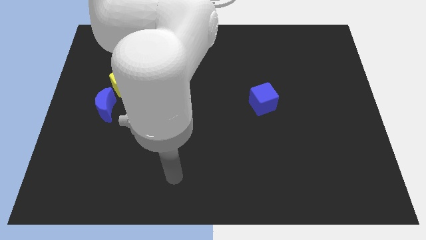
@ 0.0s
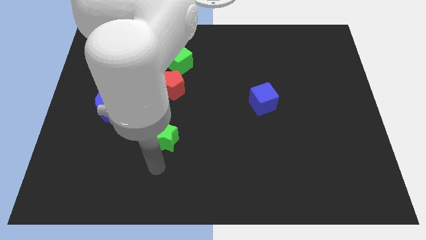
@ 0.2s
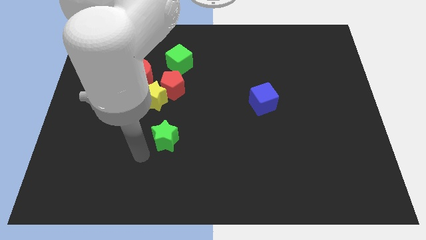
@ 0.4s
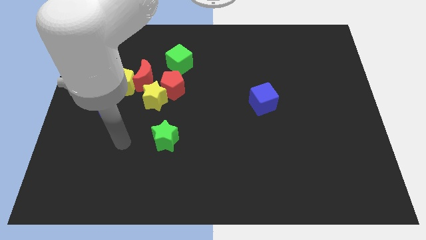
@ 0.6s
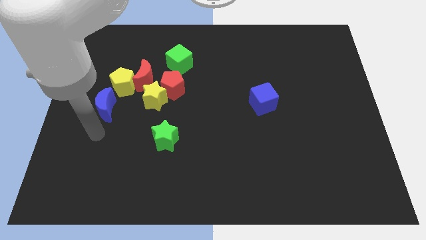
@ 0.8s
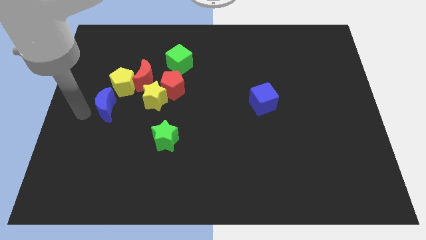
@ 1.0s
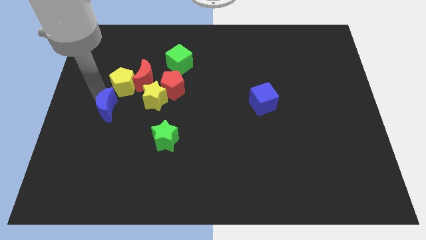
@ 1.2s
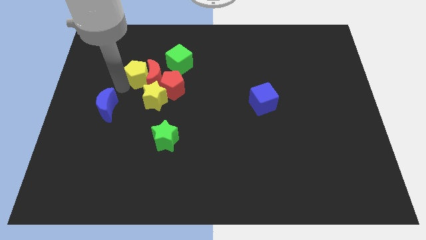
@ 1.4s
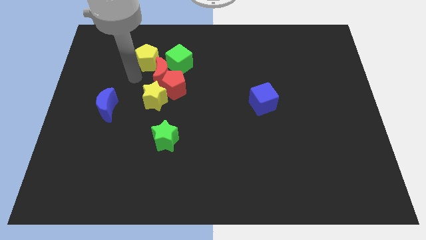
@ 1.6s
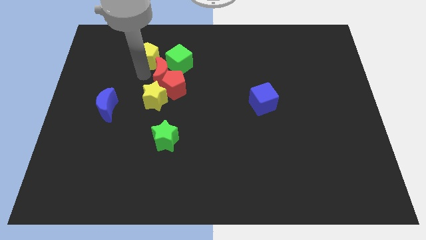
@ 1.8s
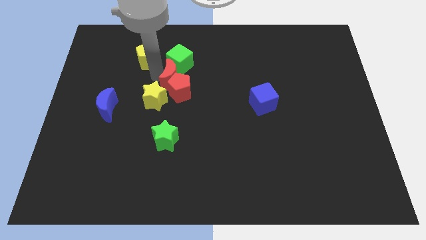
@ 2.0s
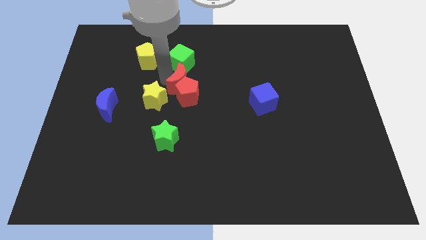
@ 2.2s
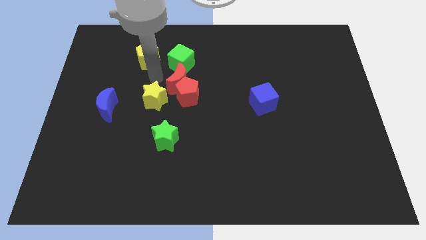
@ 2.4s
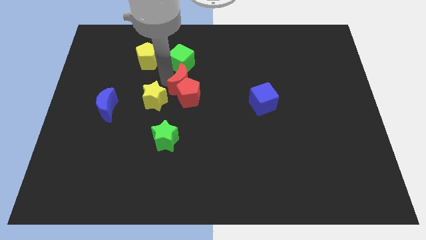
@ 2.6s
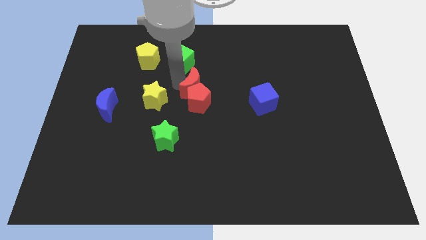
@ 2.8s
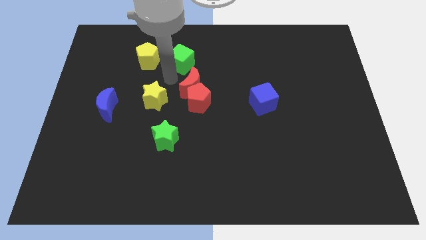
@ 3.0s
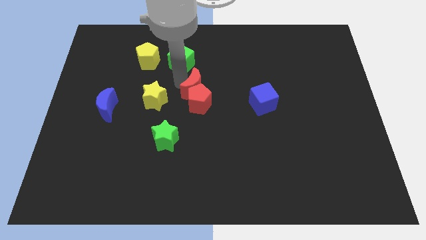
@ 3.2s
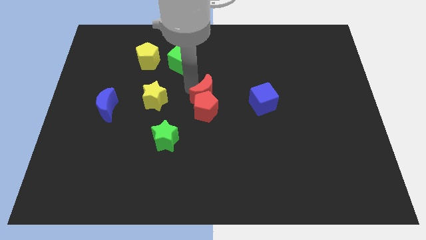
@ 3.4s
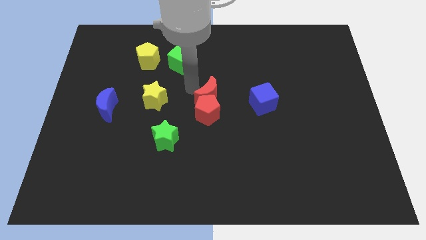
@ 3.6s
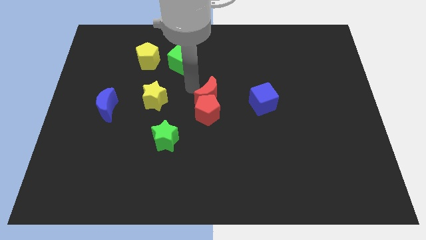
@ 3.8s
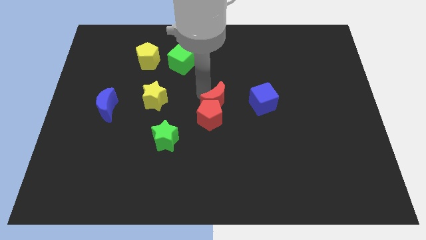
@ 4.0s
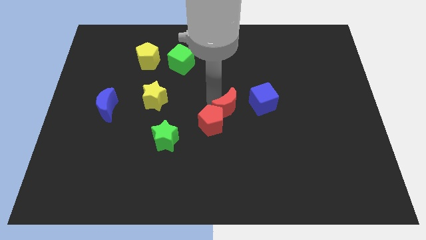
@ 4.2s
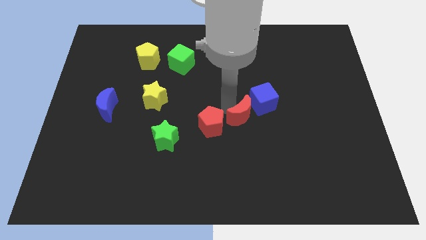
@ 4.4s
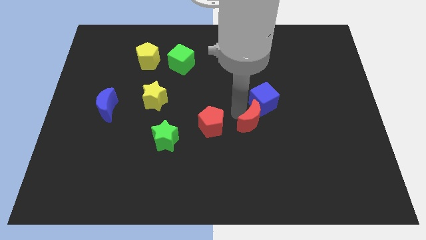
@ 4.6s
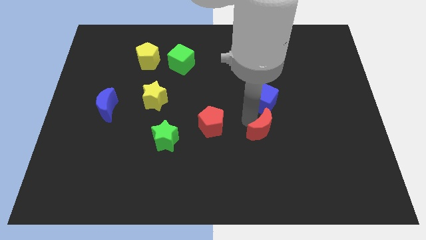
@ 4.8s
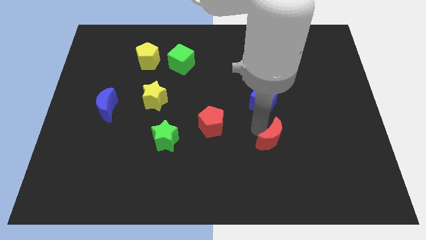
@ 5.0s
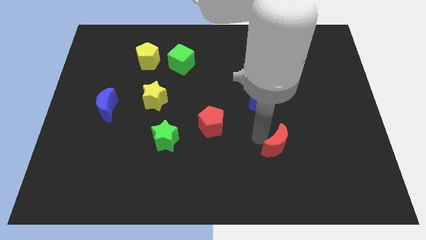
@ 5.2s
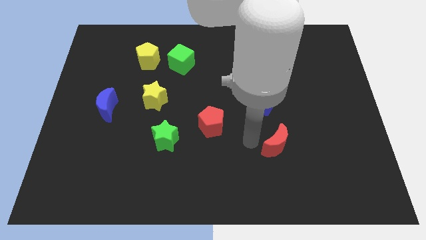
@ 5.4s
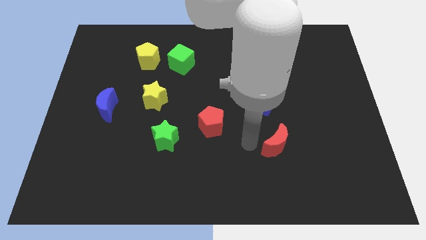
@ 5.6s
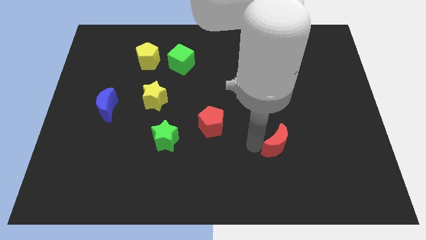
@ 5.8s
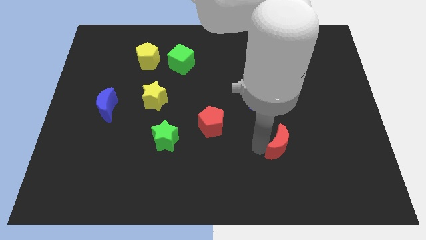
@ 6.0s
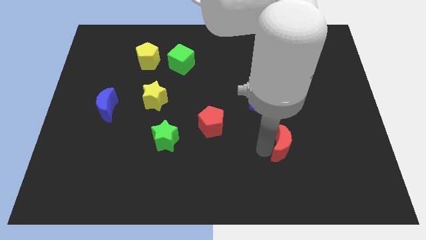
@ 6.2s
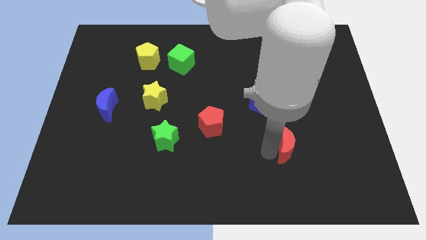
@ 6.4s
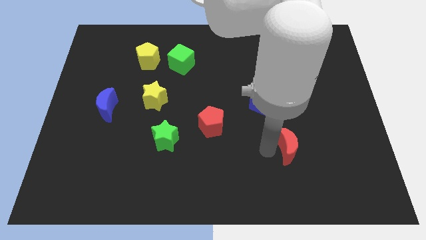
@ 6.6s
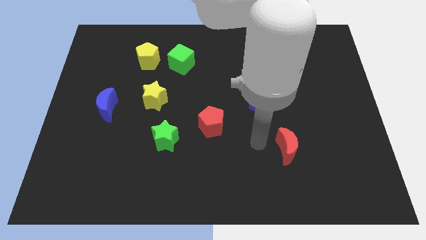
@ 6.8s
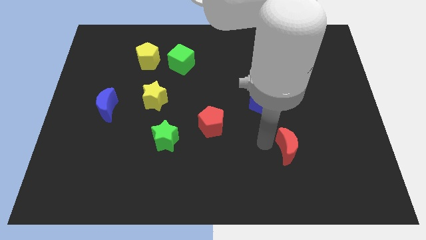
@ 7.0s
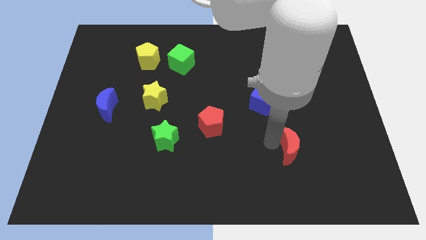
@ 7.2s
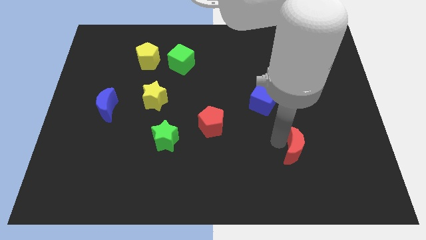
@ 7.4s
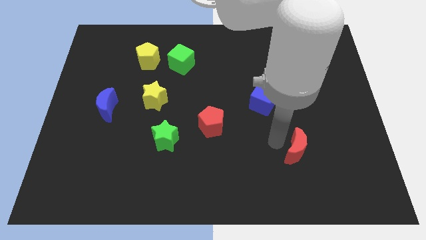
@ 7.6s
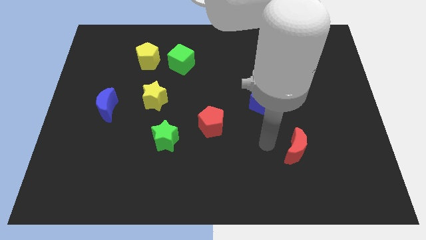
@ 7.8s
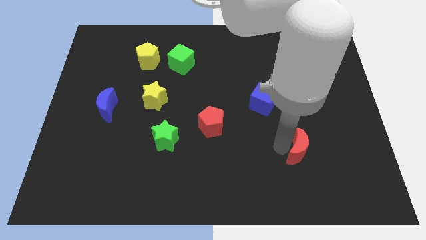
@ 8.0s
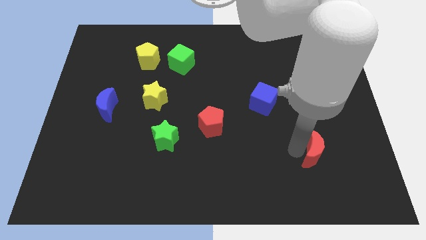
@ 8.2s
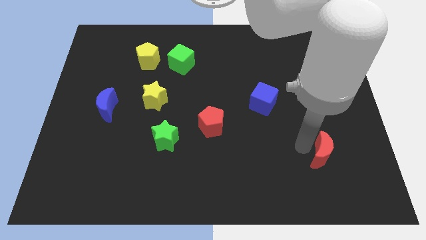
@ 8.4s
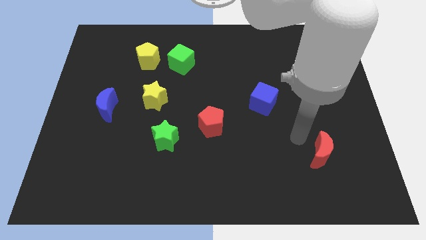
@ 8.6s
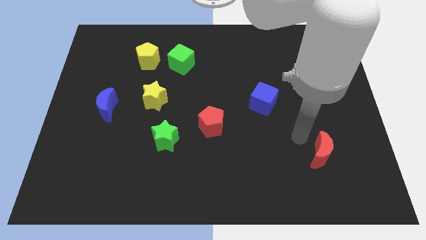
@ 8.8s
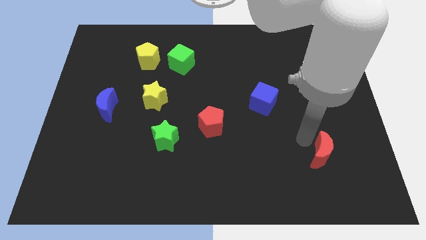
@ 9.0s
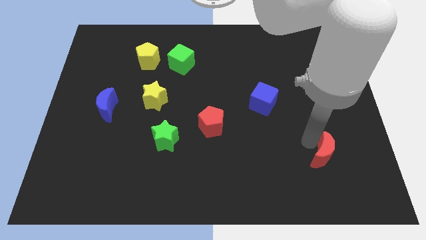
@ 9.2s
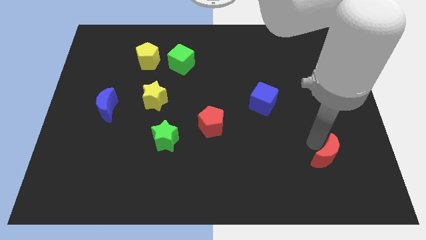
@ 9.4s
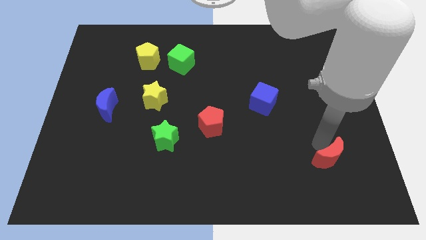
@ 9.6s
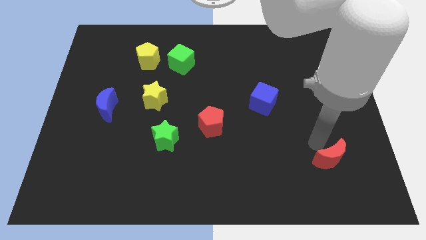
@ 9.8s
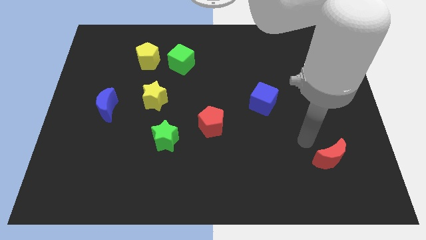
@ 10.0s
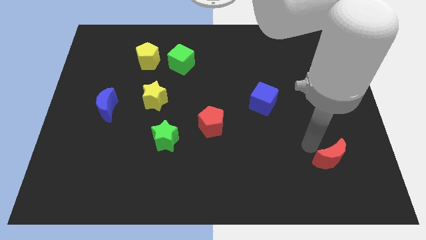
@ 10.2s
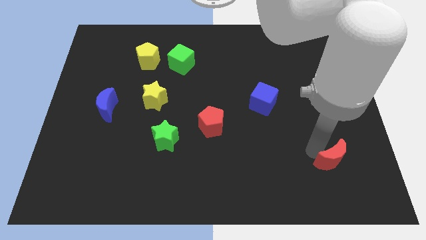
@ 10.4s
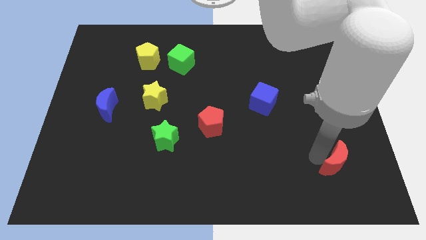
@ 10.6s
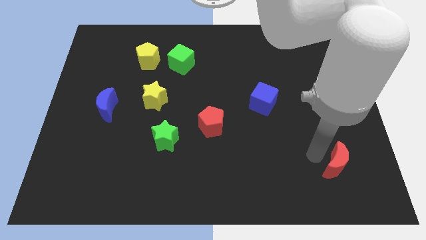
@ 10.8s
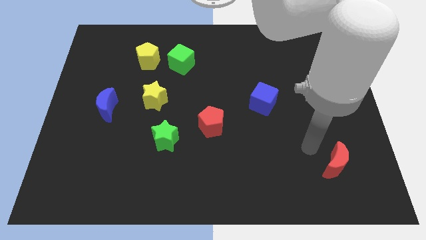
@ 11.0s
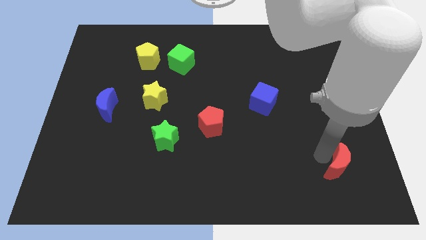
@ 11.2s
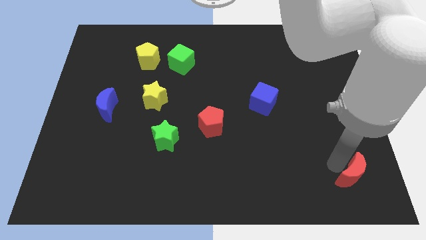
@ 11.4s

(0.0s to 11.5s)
slide the red moon to the lower right corner
